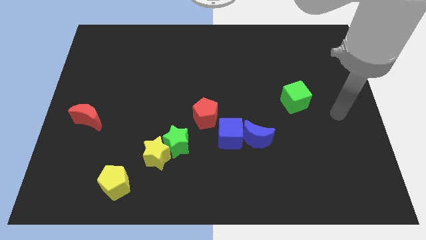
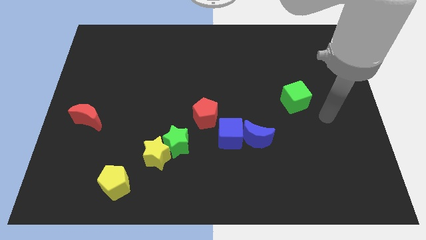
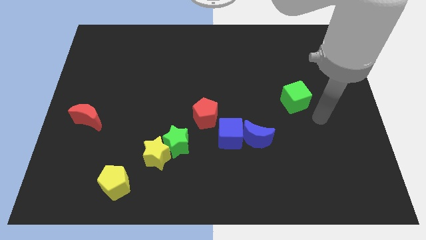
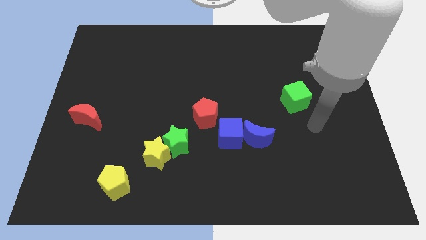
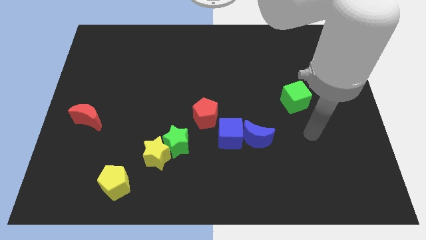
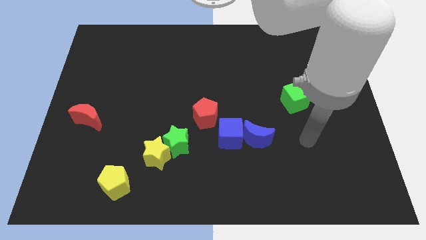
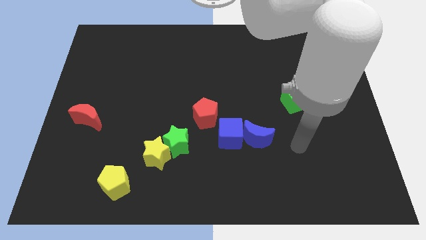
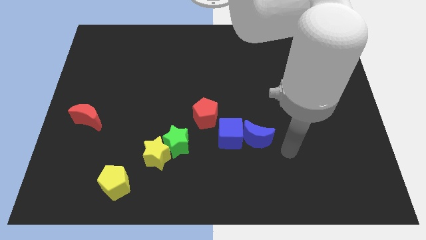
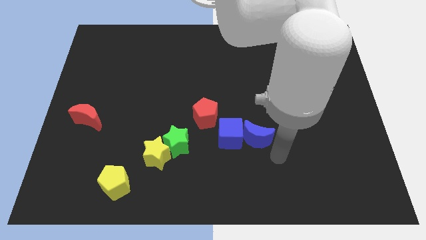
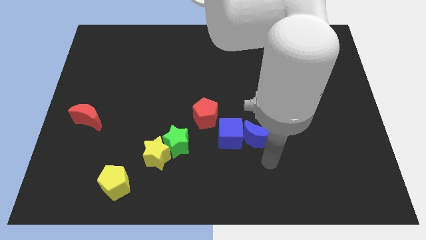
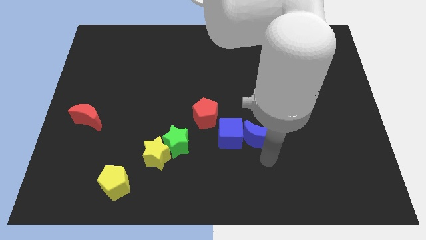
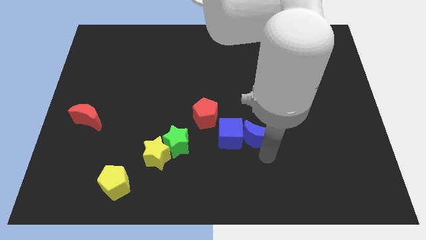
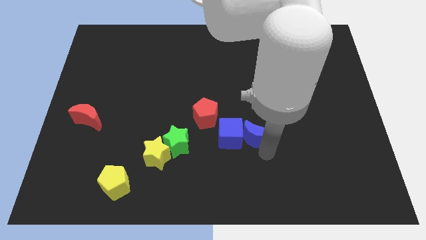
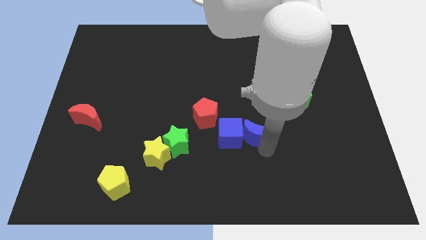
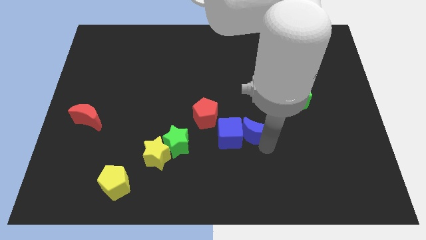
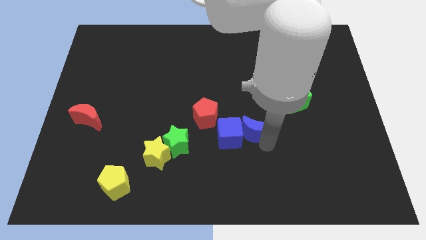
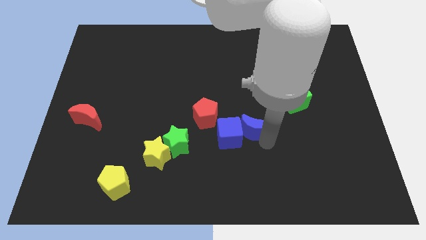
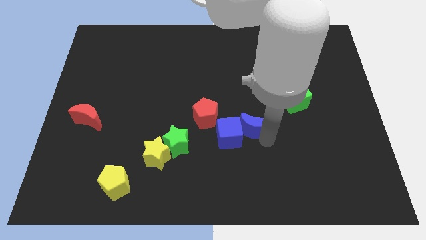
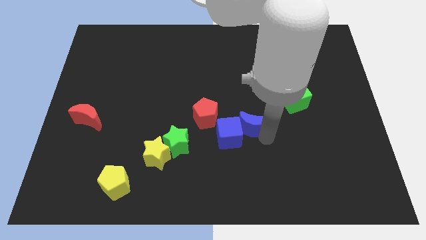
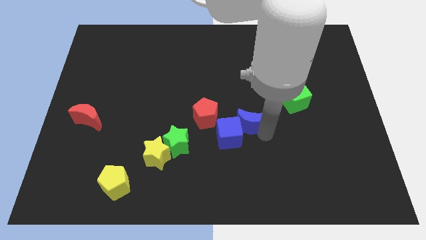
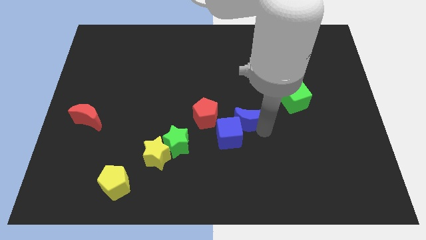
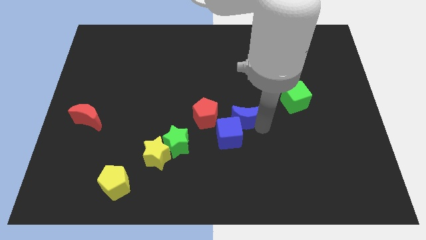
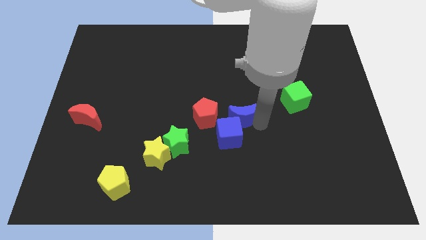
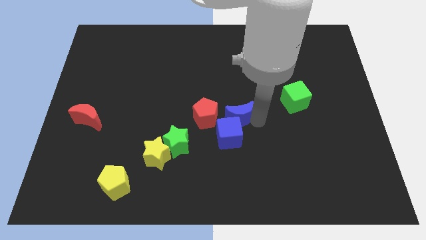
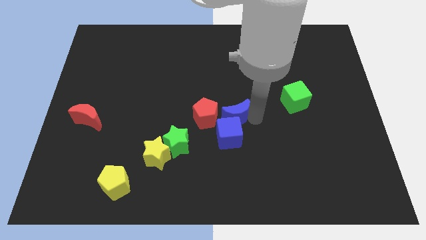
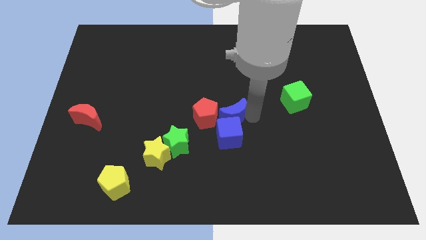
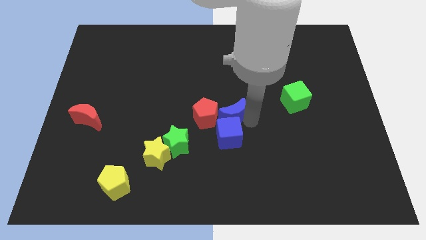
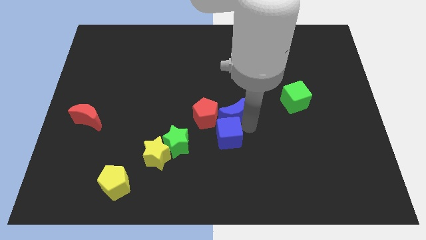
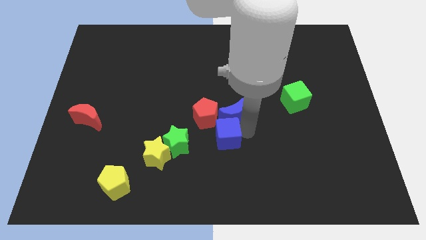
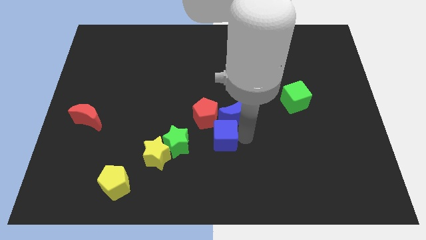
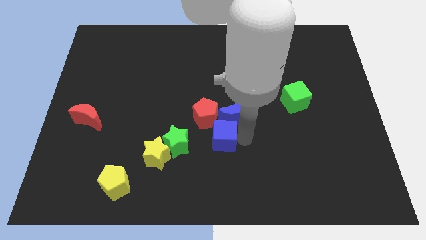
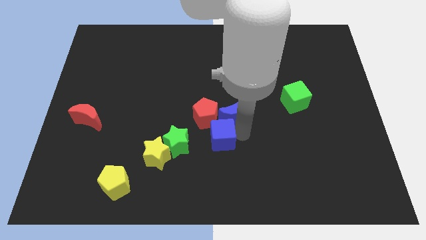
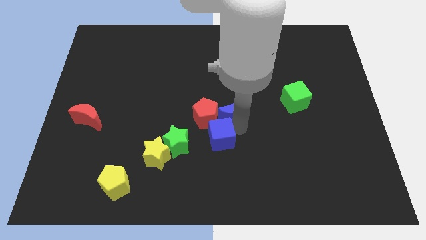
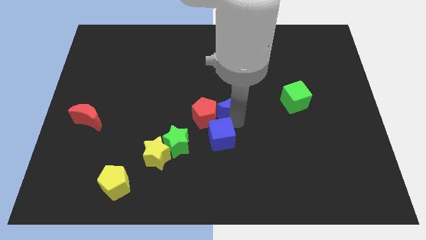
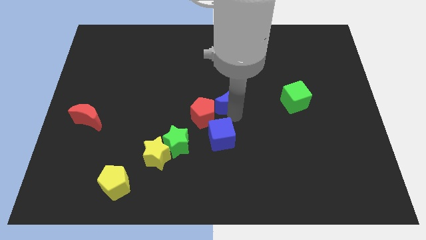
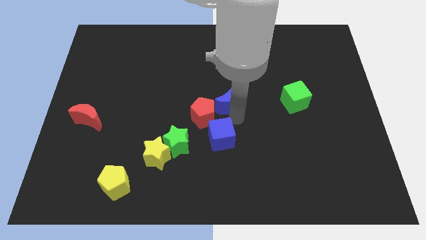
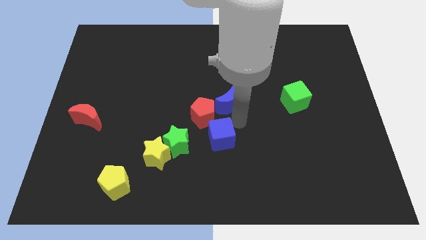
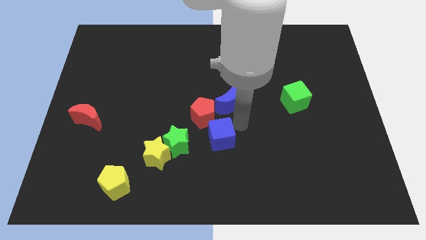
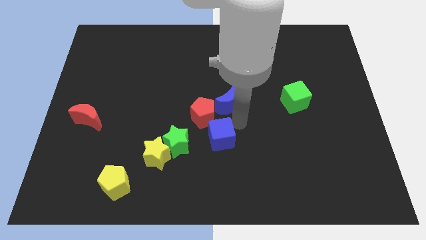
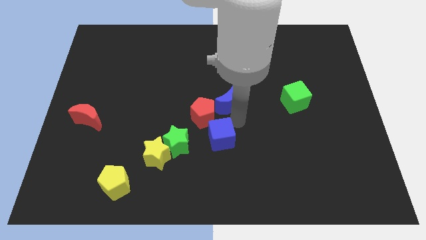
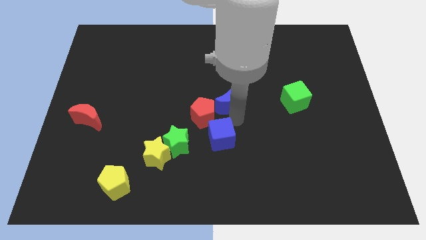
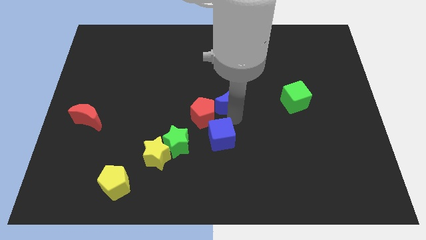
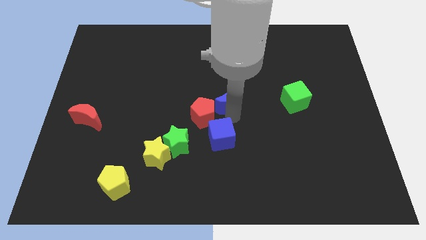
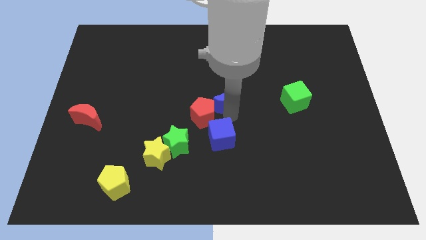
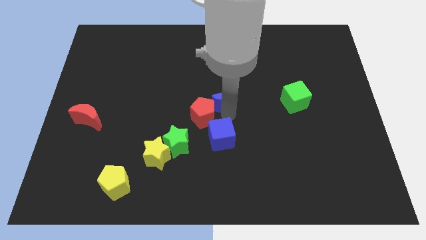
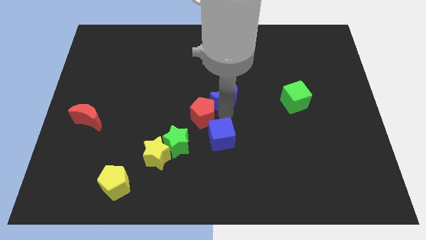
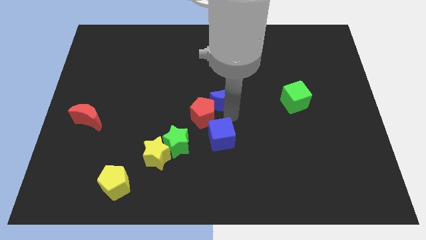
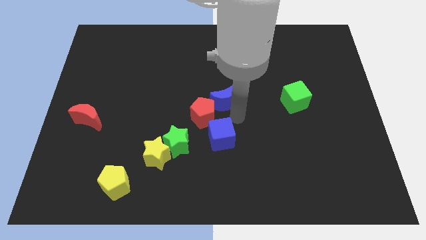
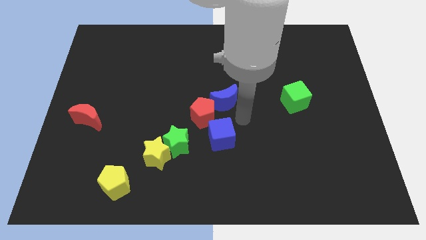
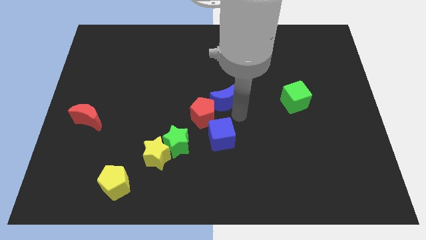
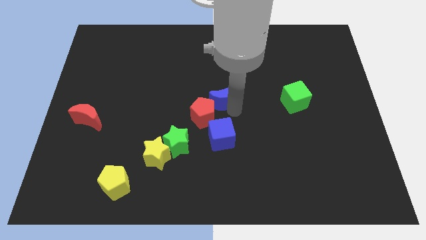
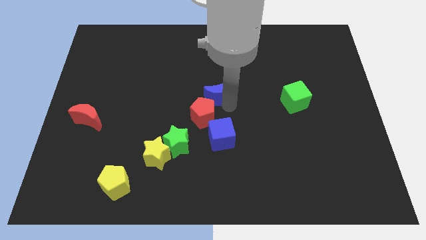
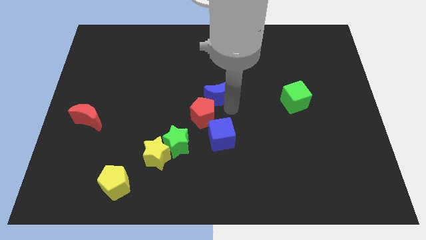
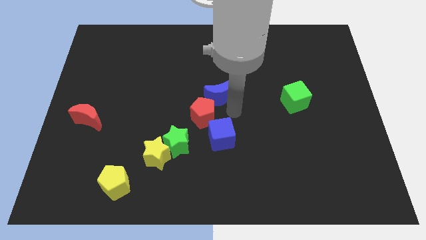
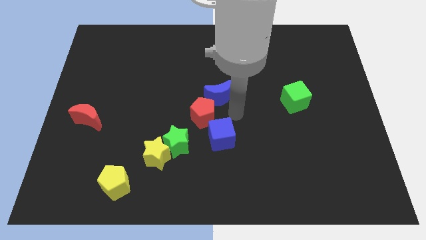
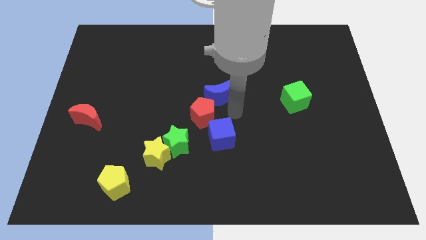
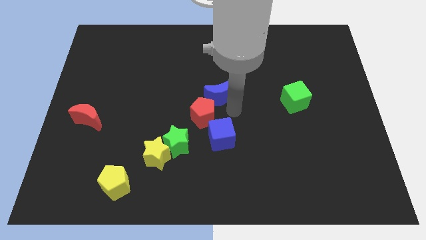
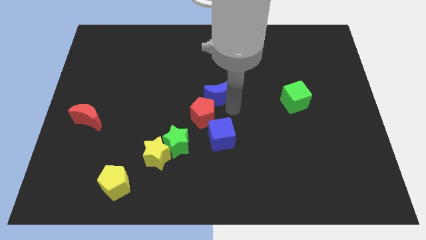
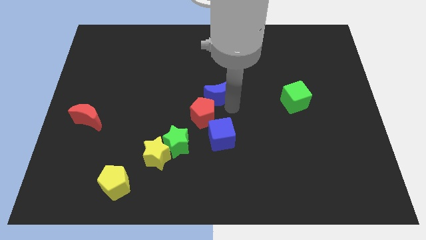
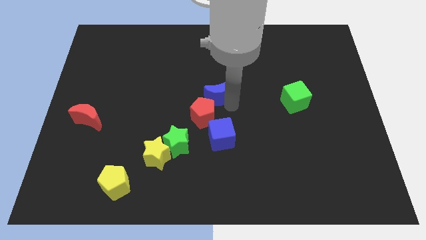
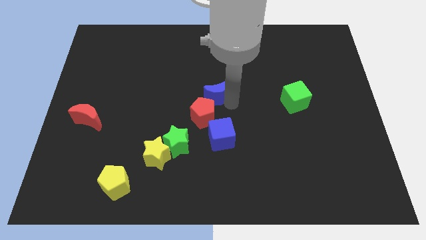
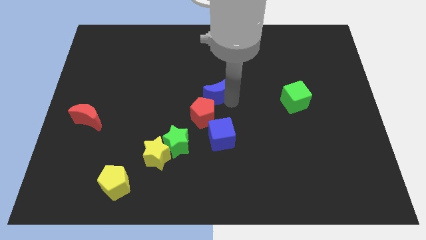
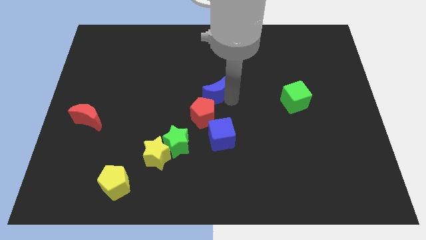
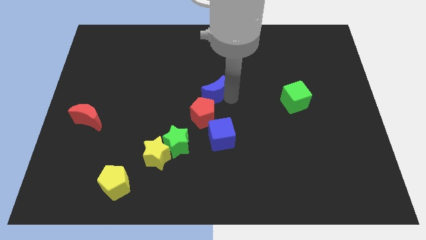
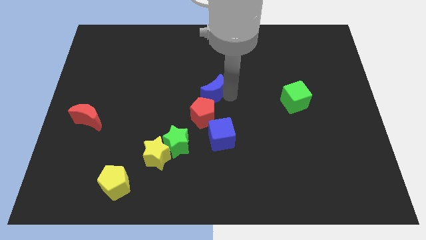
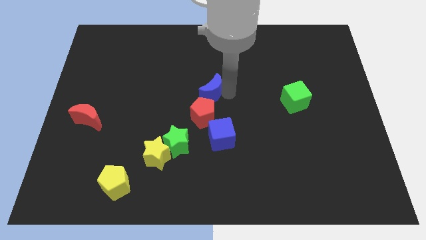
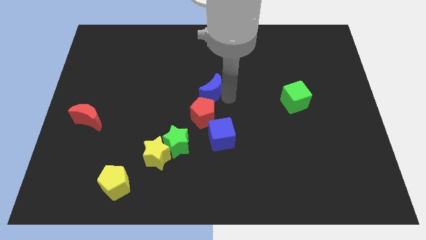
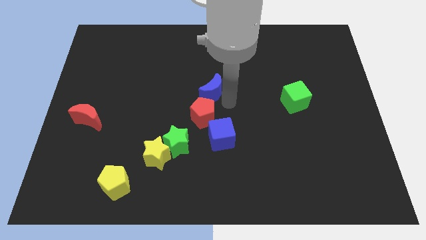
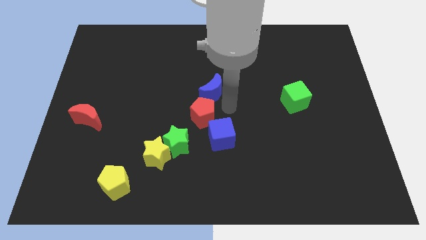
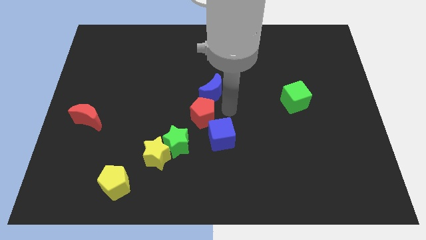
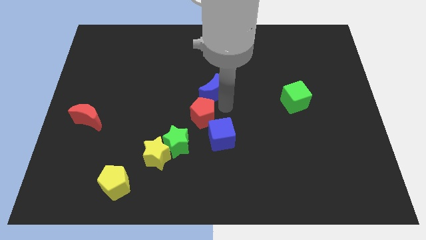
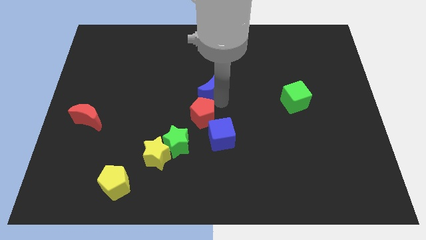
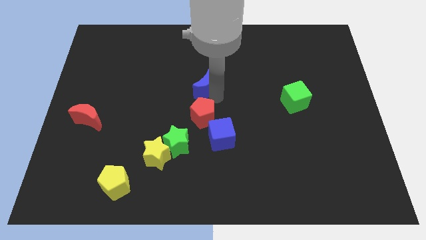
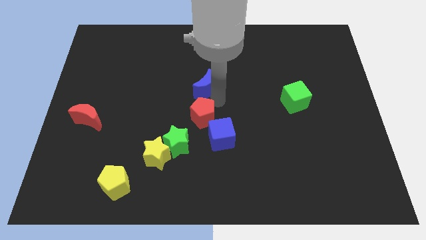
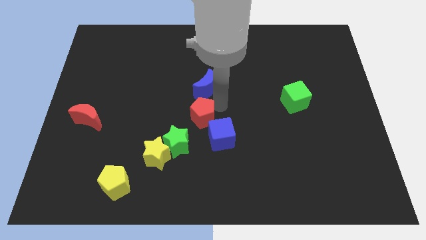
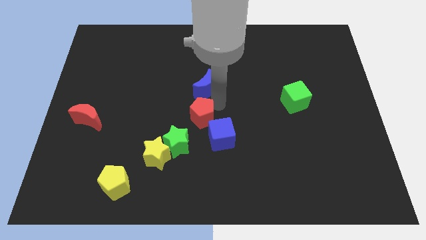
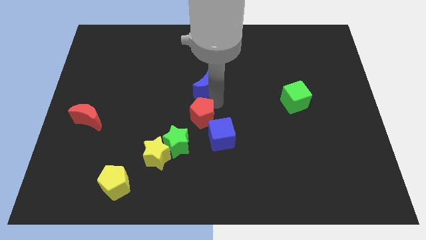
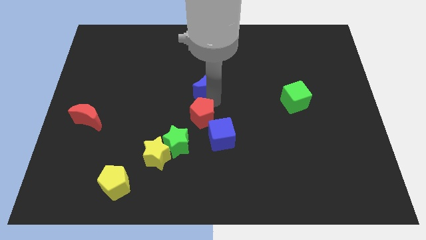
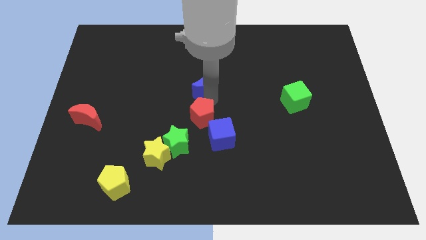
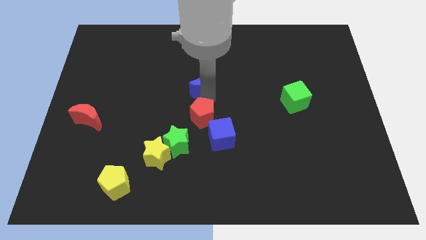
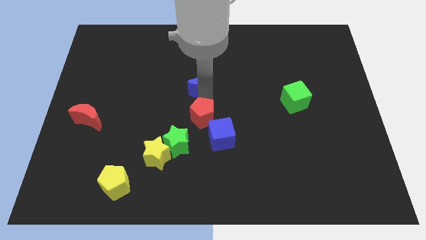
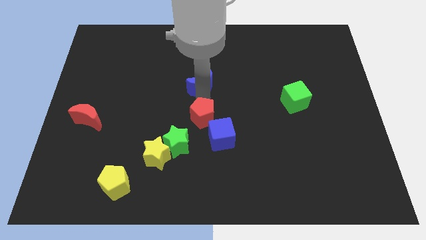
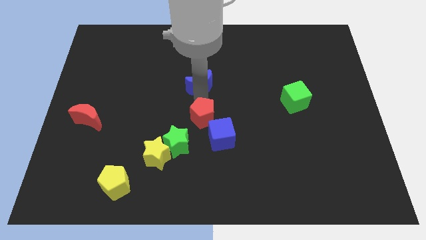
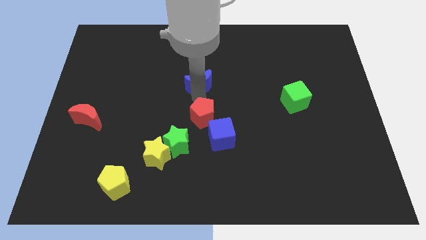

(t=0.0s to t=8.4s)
push the blue moon upwards and to the left

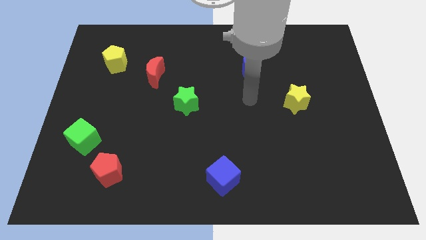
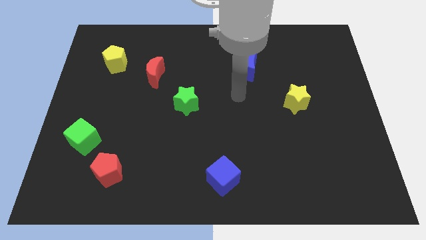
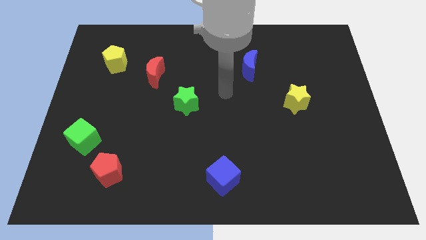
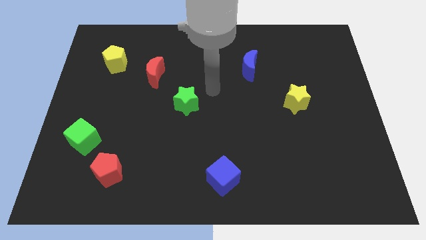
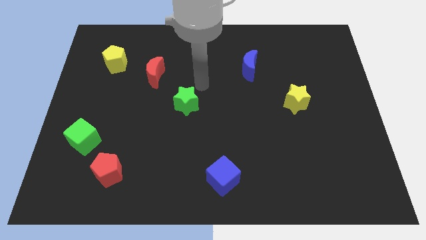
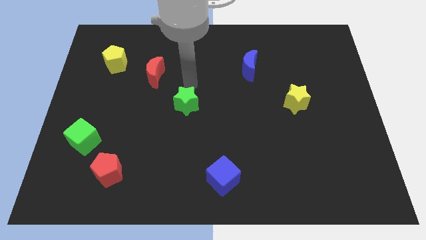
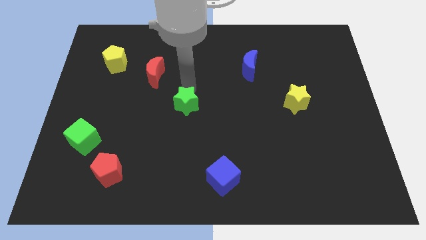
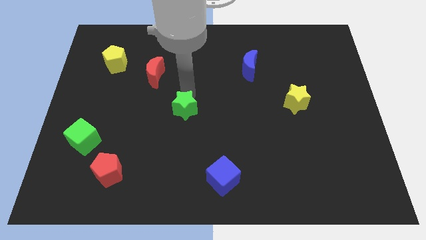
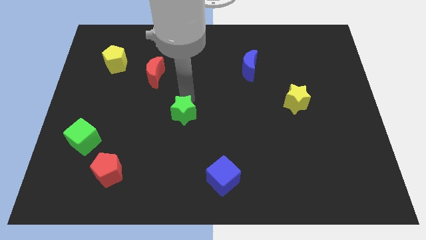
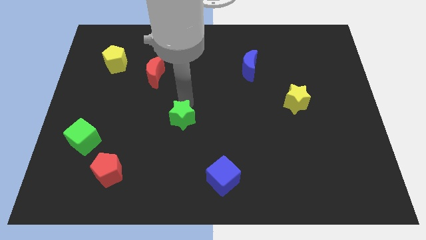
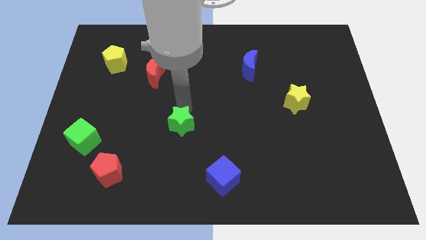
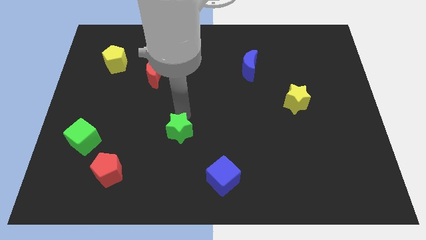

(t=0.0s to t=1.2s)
slide the green star down somewhat
